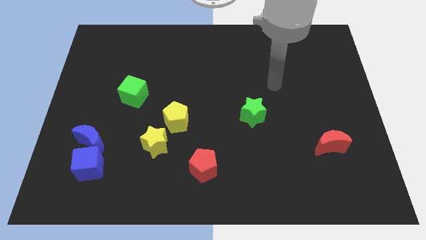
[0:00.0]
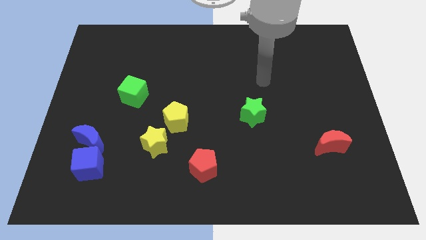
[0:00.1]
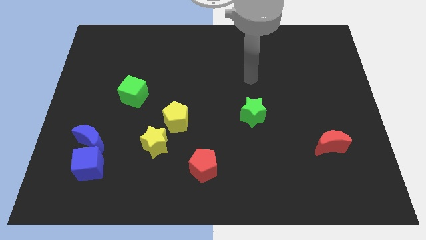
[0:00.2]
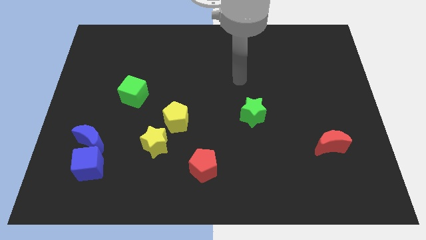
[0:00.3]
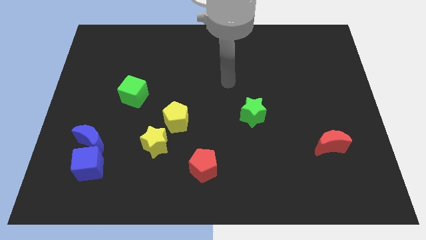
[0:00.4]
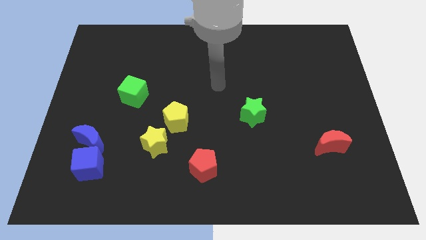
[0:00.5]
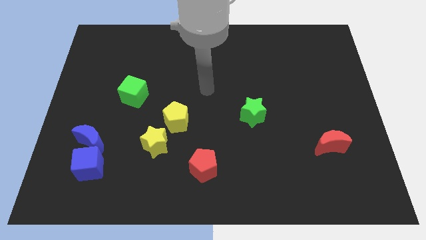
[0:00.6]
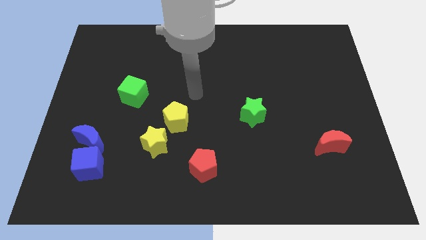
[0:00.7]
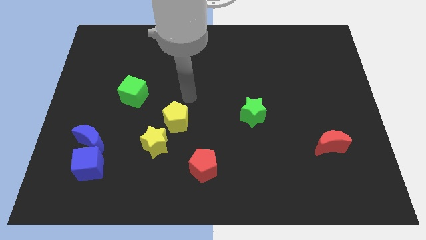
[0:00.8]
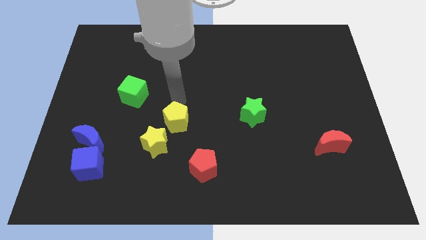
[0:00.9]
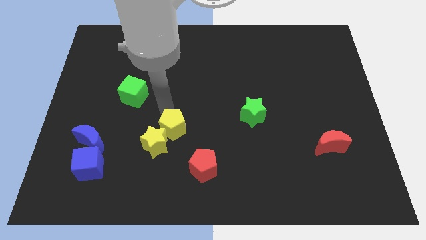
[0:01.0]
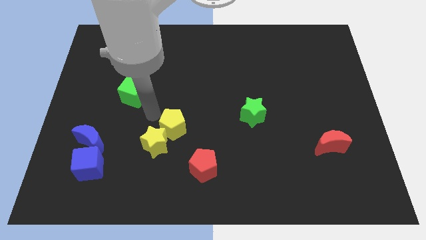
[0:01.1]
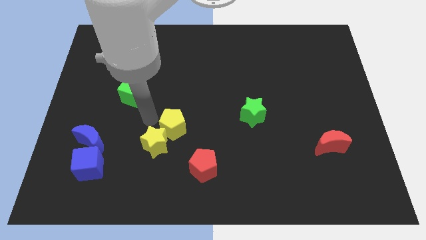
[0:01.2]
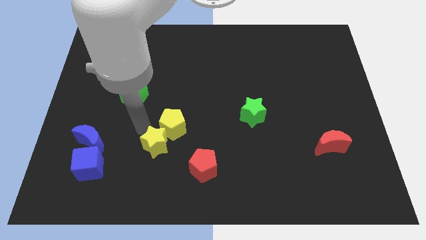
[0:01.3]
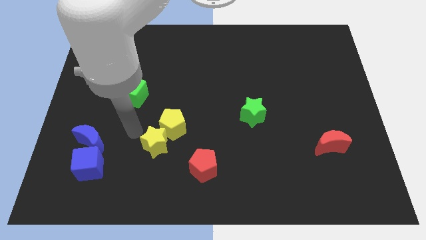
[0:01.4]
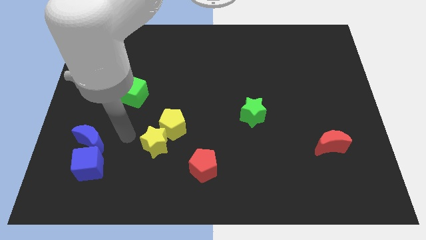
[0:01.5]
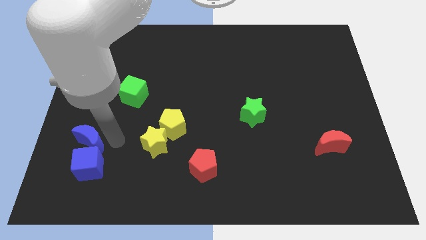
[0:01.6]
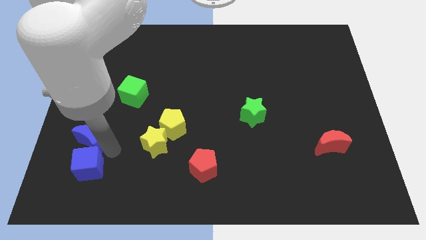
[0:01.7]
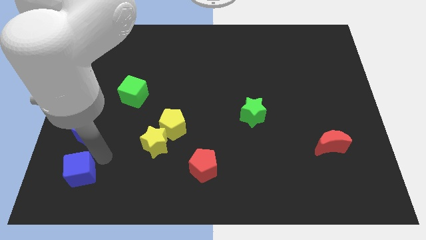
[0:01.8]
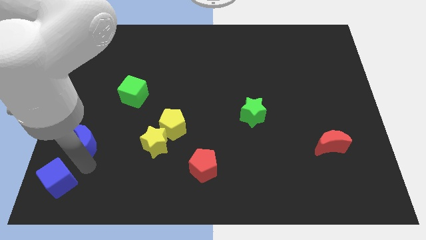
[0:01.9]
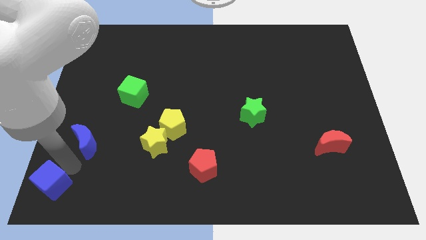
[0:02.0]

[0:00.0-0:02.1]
pull the blue moon apart from the blue cube

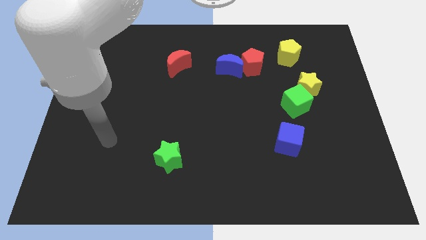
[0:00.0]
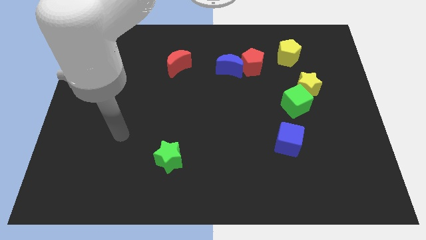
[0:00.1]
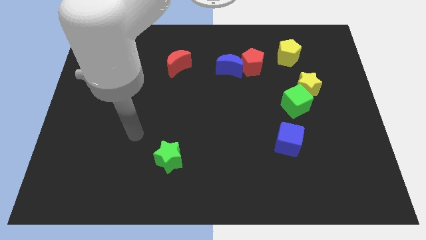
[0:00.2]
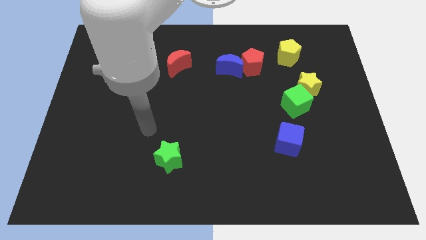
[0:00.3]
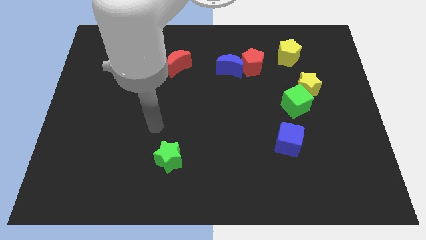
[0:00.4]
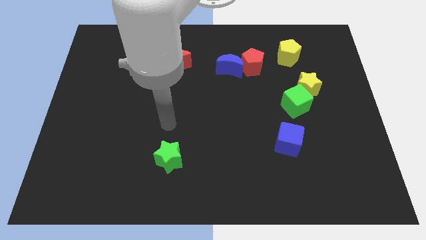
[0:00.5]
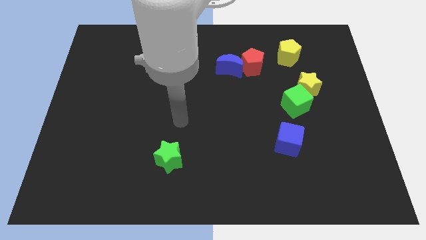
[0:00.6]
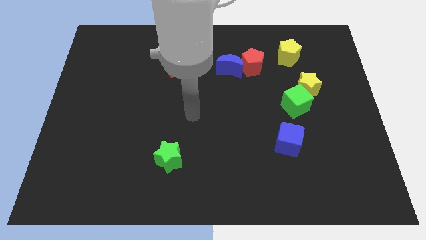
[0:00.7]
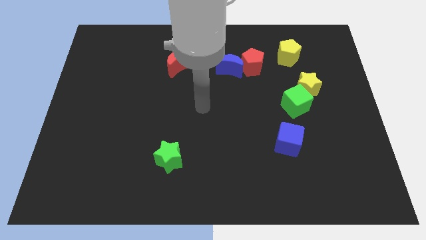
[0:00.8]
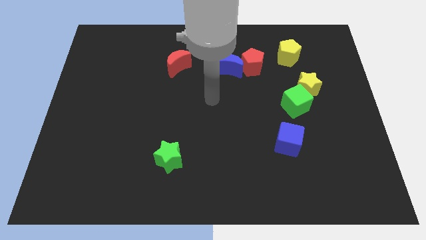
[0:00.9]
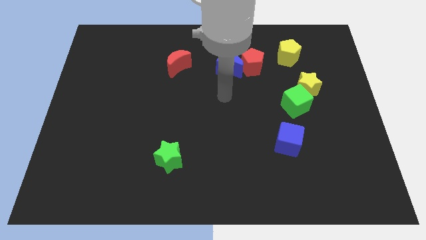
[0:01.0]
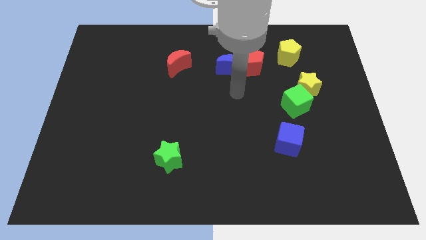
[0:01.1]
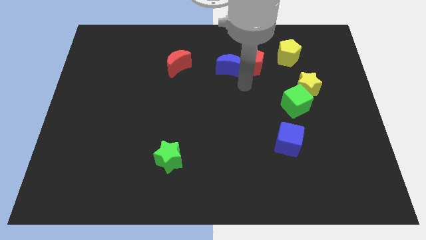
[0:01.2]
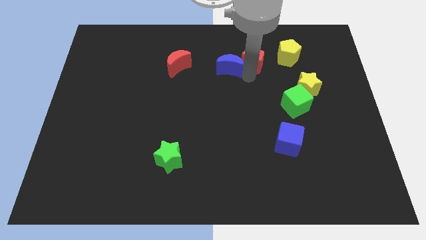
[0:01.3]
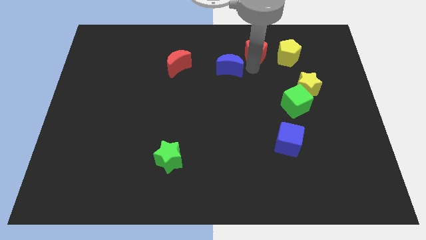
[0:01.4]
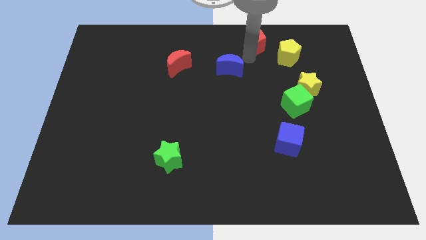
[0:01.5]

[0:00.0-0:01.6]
pull the blue moon apart from the red pentagon

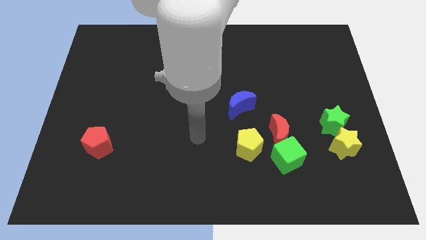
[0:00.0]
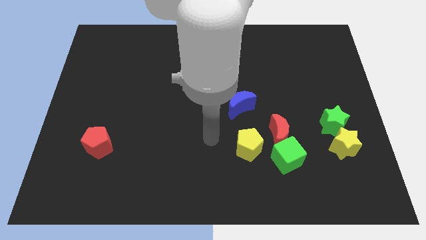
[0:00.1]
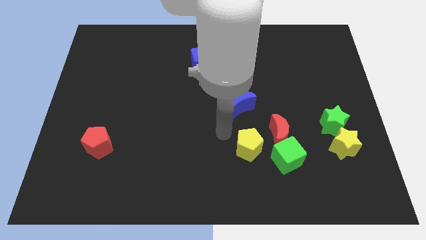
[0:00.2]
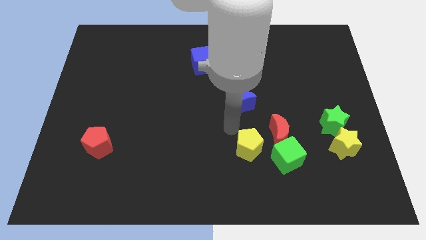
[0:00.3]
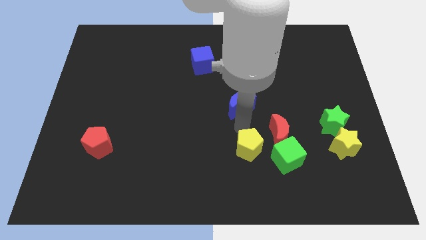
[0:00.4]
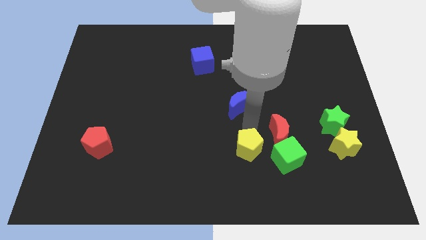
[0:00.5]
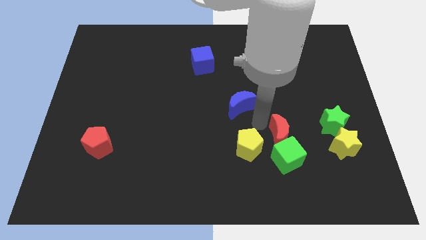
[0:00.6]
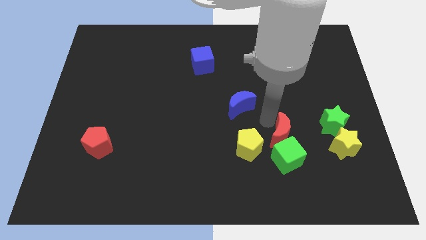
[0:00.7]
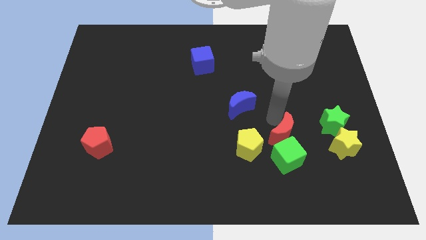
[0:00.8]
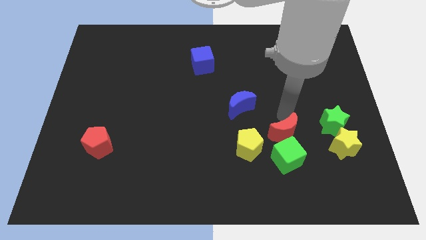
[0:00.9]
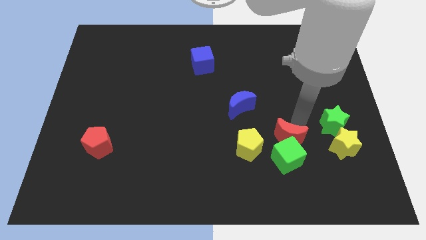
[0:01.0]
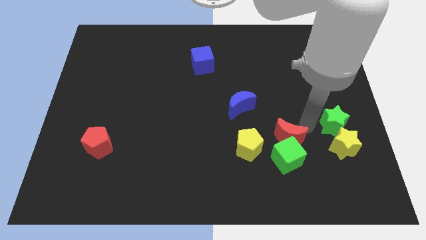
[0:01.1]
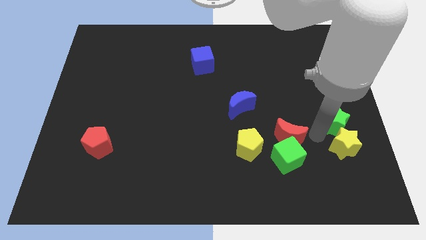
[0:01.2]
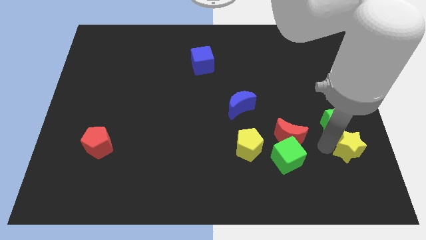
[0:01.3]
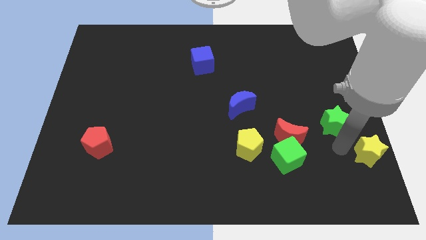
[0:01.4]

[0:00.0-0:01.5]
separate the green star from the yellow star

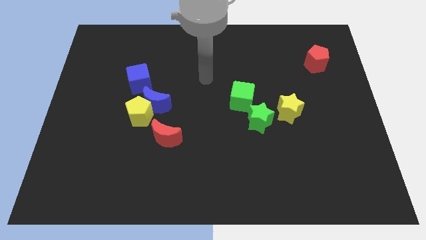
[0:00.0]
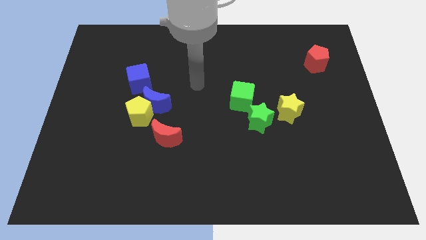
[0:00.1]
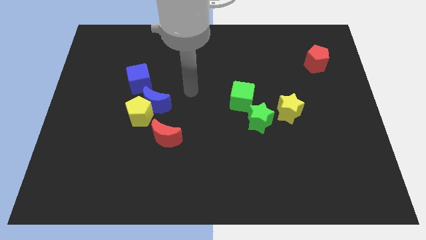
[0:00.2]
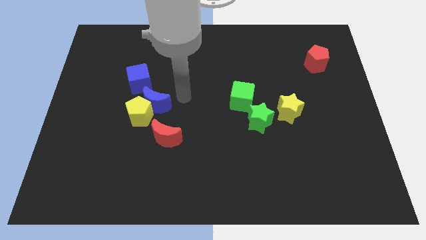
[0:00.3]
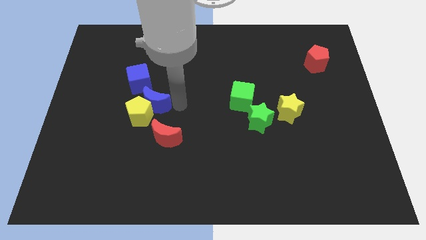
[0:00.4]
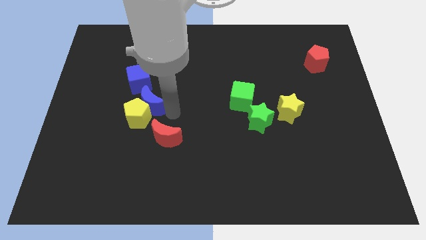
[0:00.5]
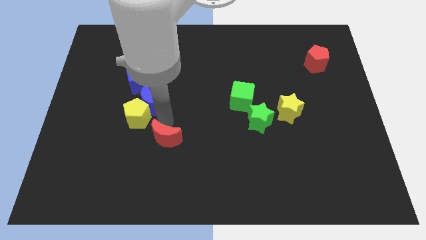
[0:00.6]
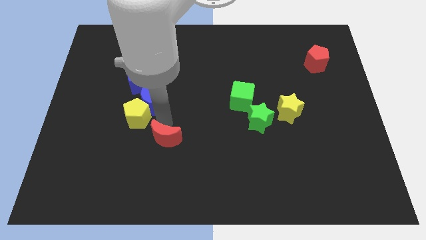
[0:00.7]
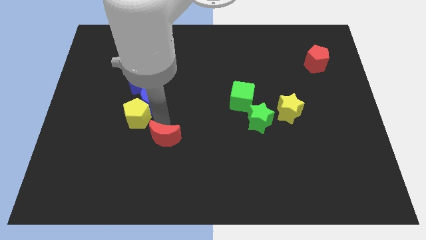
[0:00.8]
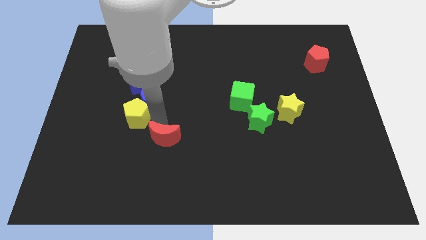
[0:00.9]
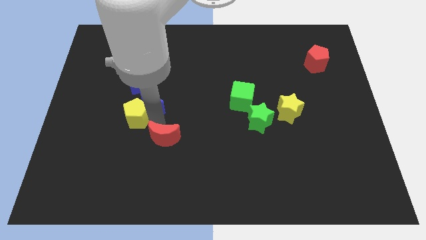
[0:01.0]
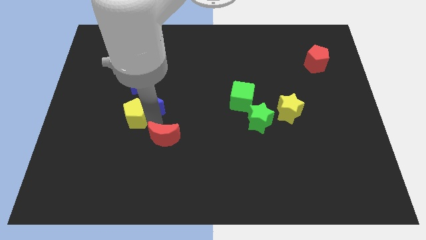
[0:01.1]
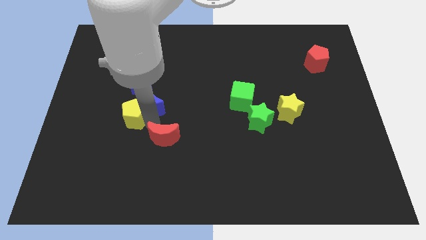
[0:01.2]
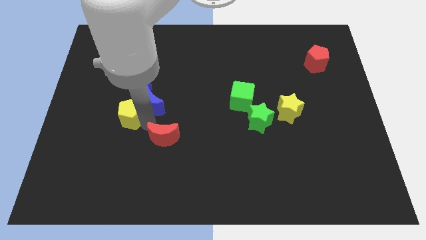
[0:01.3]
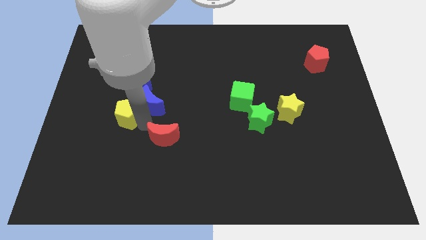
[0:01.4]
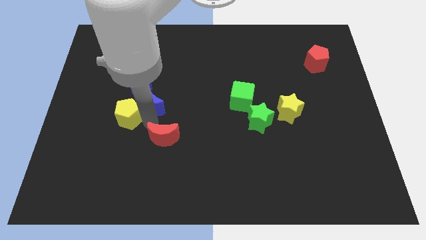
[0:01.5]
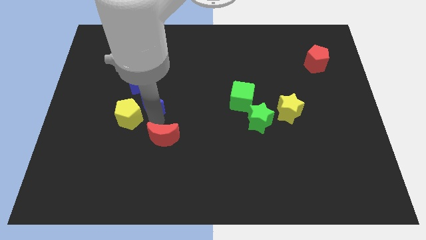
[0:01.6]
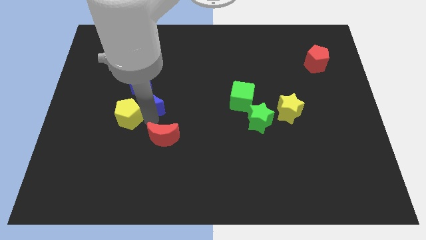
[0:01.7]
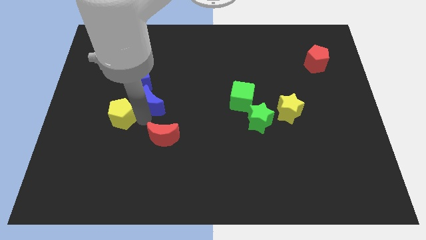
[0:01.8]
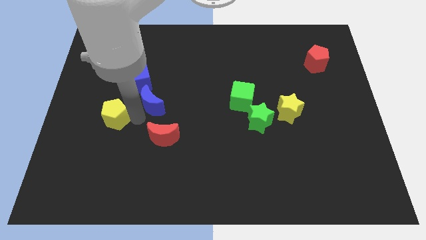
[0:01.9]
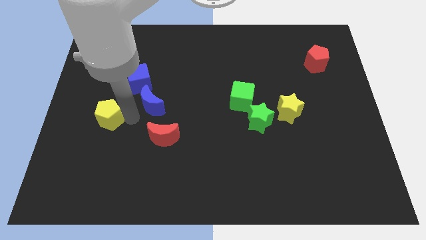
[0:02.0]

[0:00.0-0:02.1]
separate the yellow pentagon from the blue moon and red moon

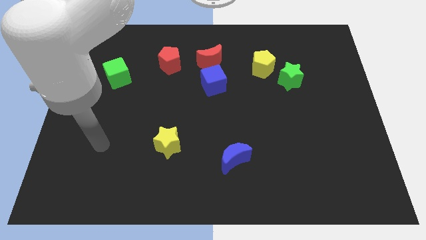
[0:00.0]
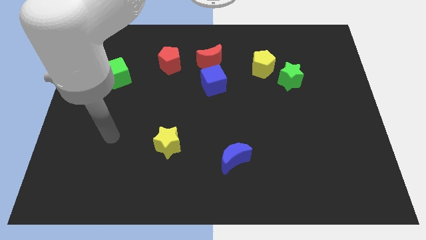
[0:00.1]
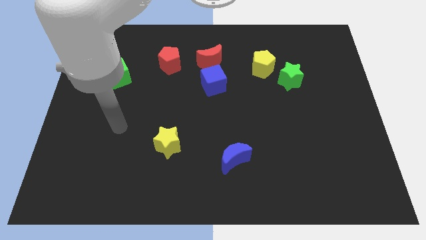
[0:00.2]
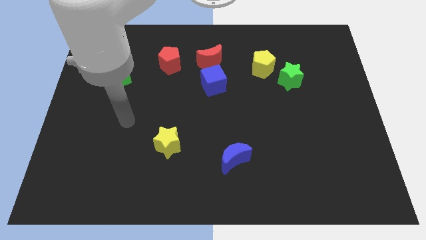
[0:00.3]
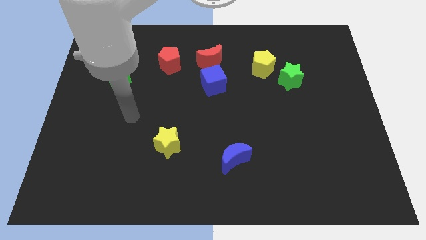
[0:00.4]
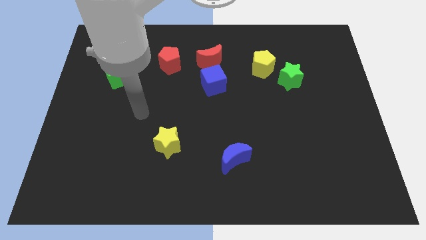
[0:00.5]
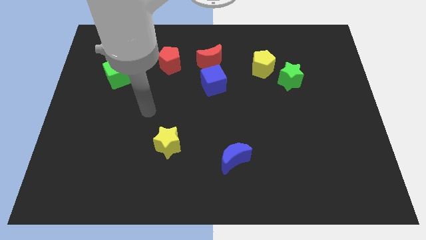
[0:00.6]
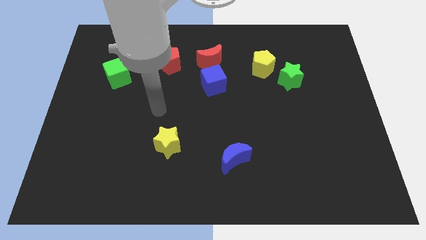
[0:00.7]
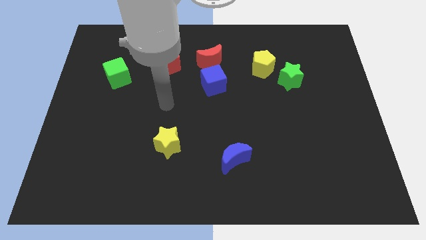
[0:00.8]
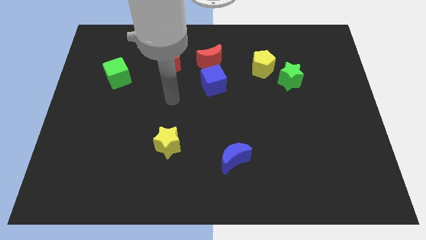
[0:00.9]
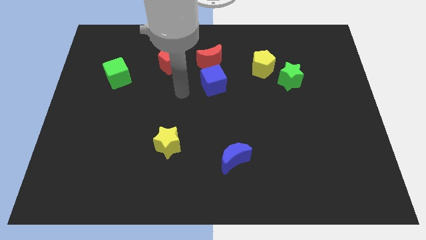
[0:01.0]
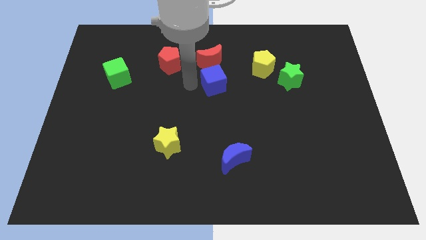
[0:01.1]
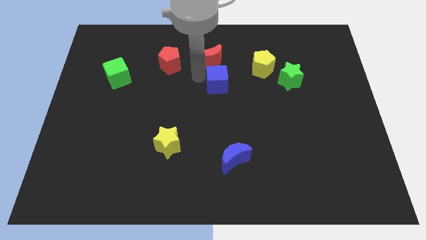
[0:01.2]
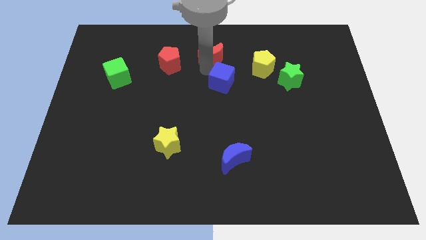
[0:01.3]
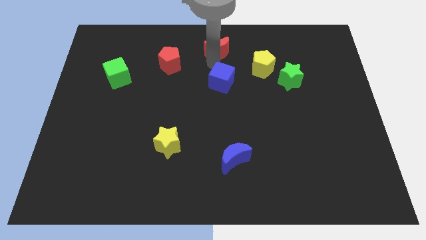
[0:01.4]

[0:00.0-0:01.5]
separate the blue cube from the red moon

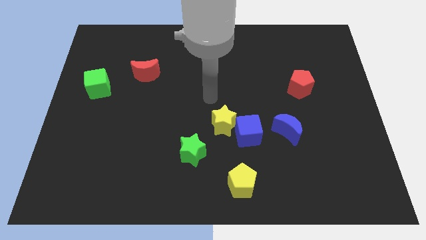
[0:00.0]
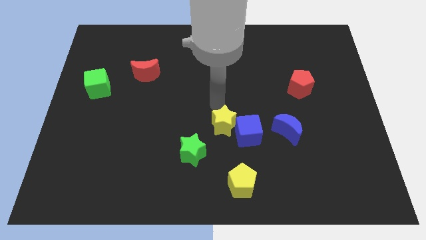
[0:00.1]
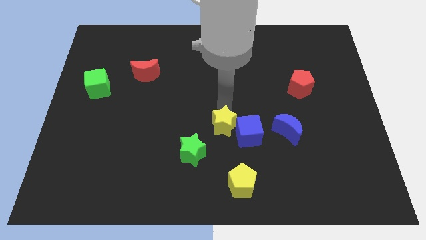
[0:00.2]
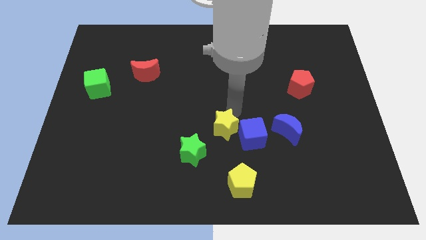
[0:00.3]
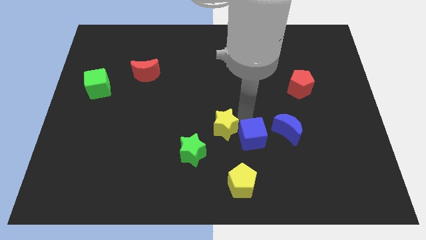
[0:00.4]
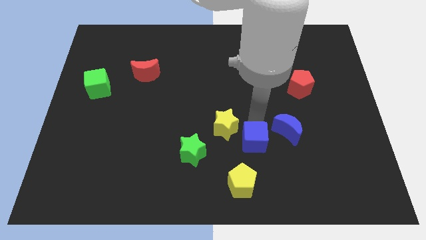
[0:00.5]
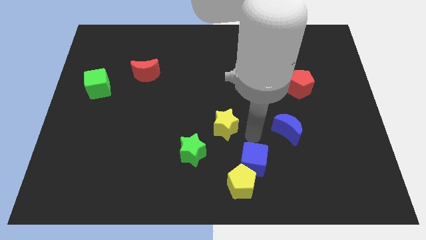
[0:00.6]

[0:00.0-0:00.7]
pull the yellow star apart from the blue cube

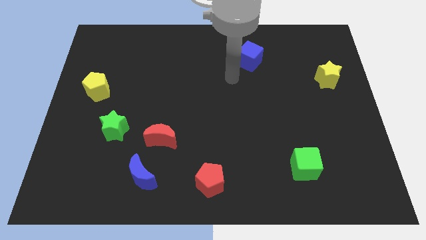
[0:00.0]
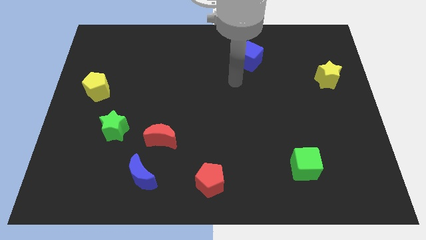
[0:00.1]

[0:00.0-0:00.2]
pull the red moon apart from the blue moon
